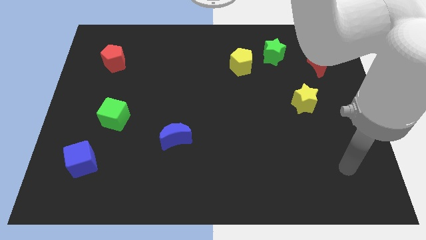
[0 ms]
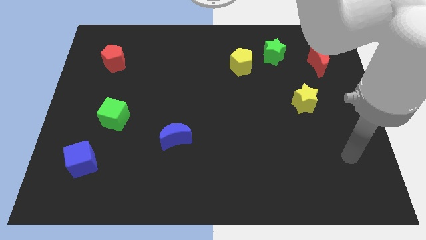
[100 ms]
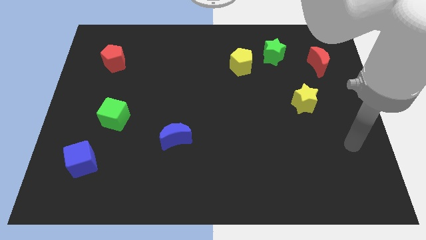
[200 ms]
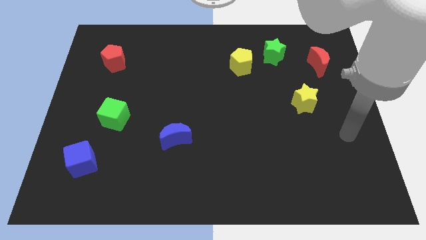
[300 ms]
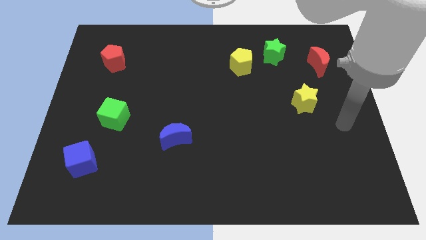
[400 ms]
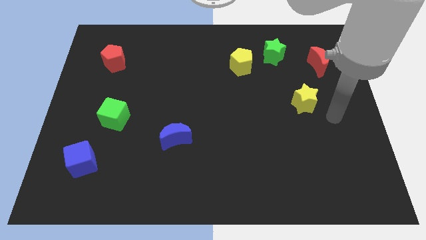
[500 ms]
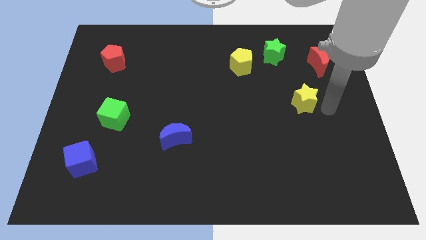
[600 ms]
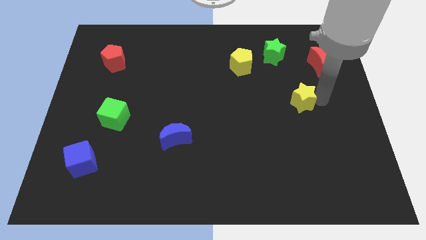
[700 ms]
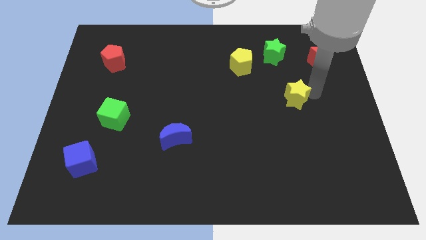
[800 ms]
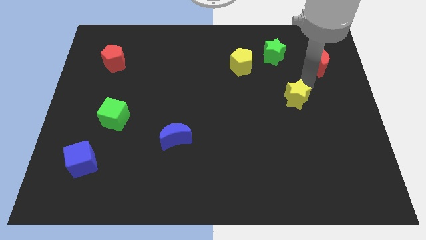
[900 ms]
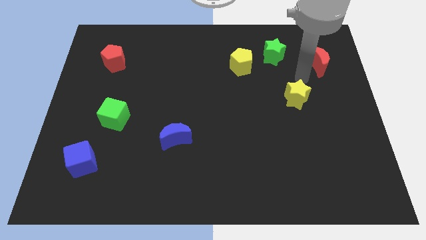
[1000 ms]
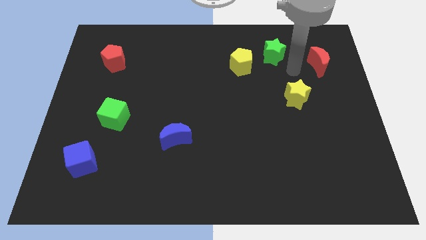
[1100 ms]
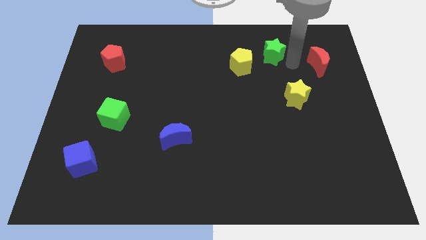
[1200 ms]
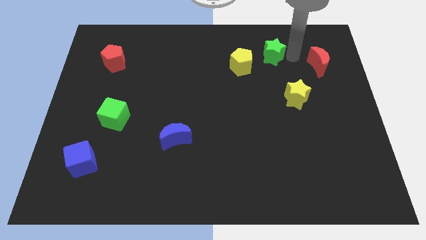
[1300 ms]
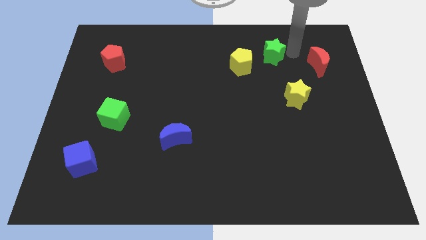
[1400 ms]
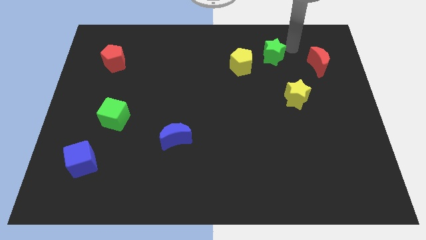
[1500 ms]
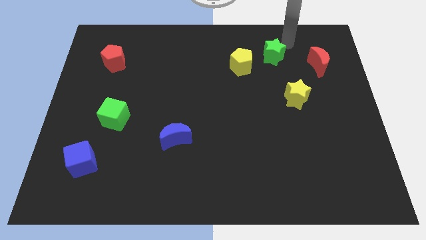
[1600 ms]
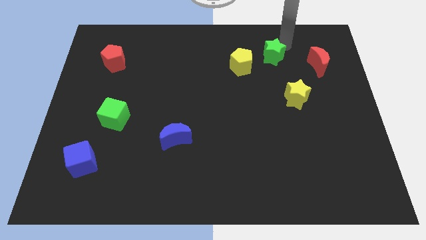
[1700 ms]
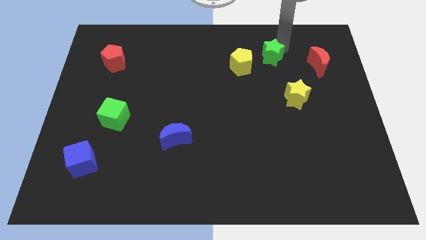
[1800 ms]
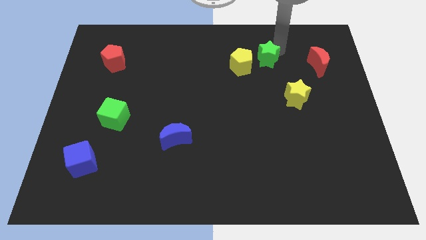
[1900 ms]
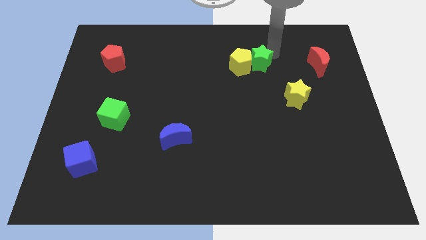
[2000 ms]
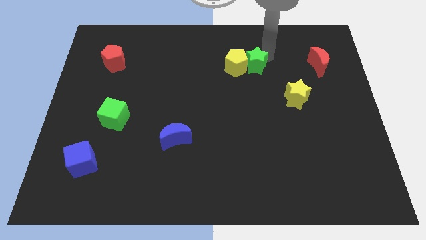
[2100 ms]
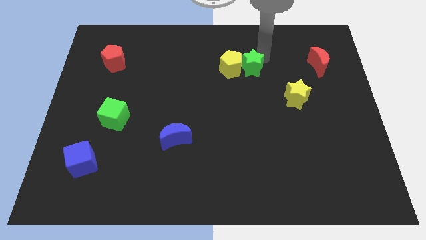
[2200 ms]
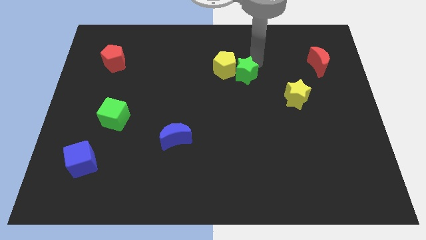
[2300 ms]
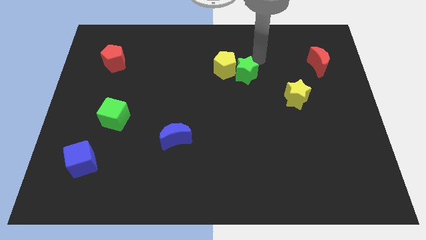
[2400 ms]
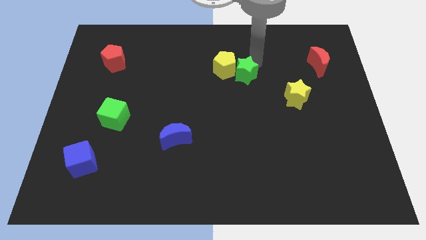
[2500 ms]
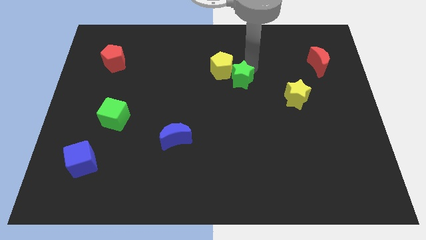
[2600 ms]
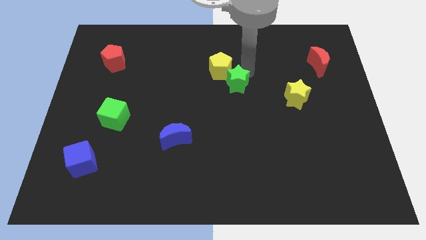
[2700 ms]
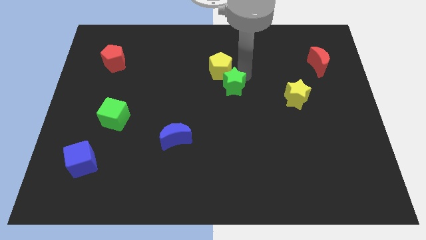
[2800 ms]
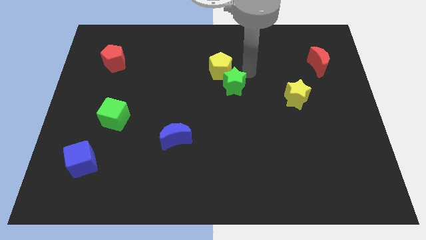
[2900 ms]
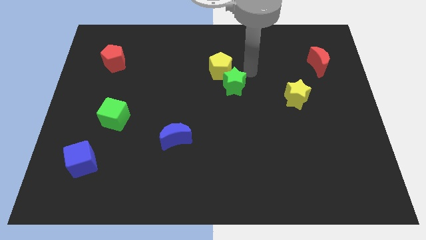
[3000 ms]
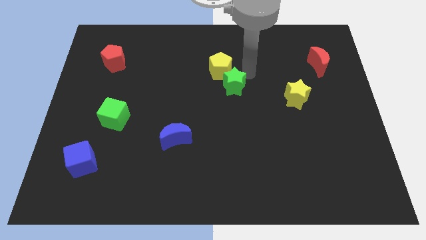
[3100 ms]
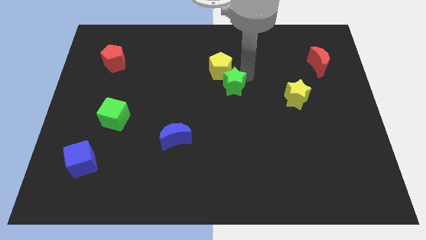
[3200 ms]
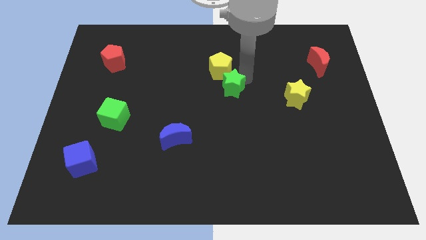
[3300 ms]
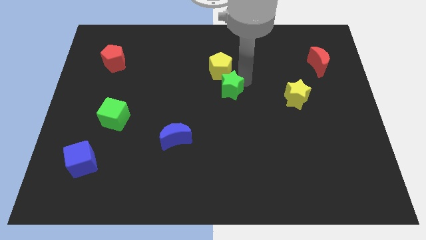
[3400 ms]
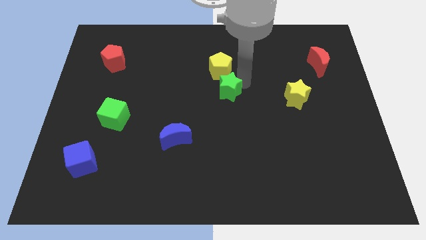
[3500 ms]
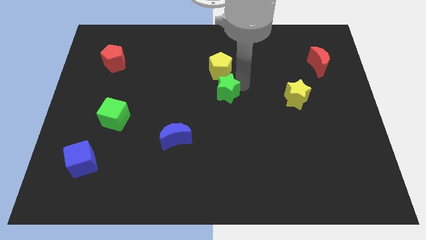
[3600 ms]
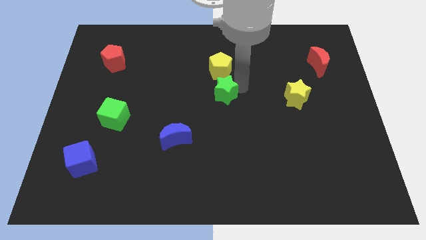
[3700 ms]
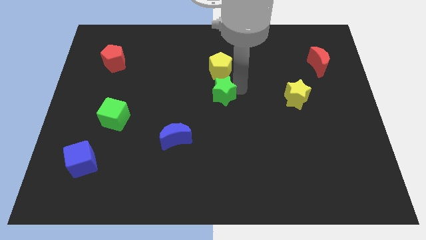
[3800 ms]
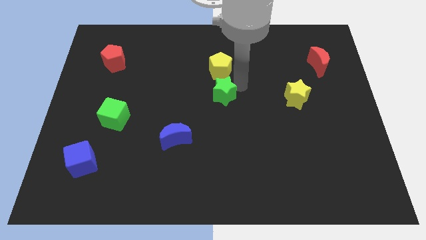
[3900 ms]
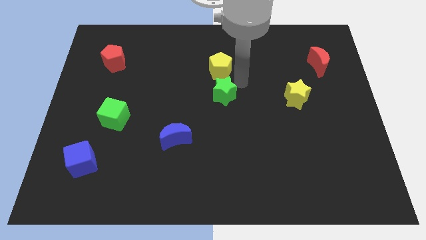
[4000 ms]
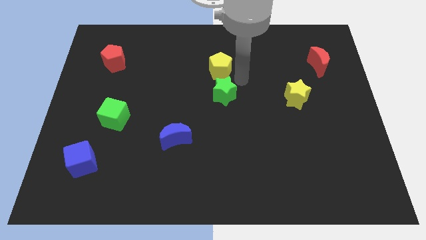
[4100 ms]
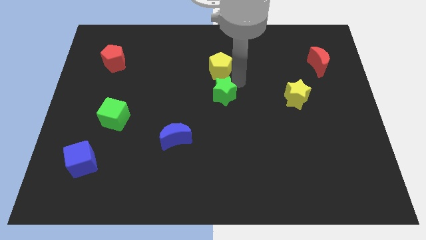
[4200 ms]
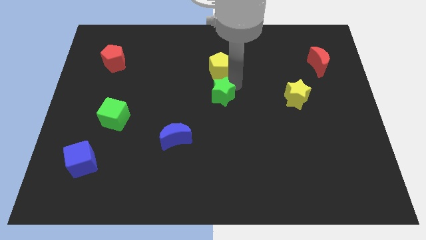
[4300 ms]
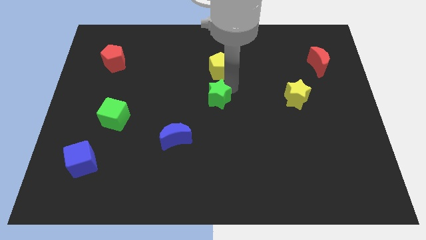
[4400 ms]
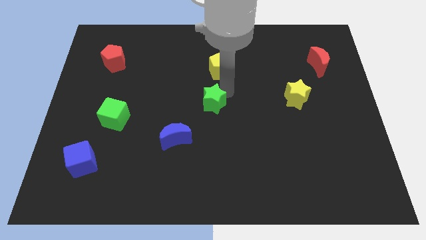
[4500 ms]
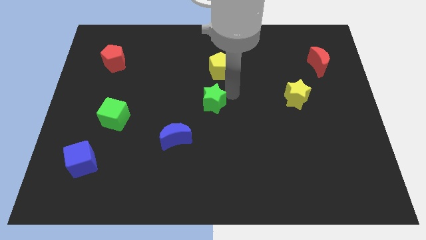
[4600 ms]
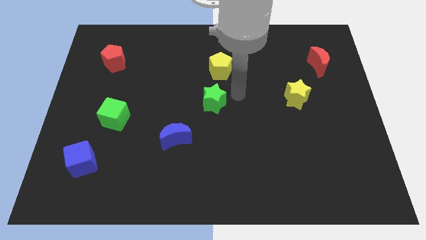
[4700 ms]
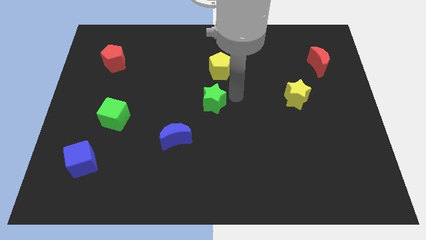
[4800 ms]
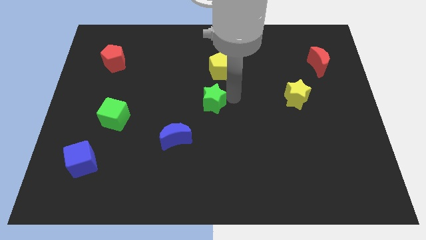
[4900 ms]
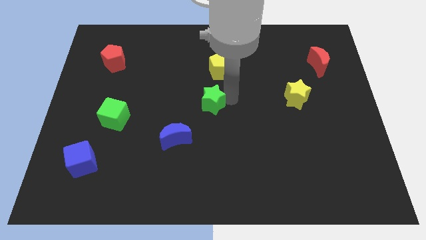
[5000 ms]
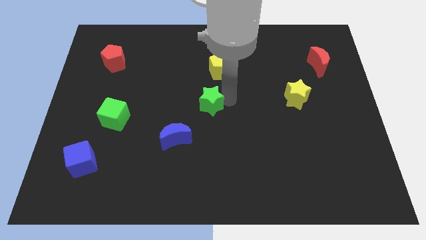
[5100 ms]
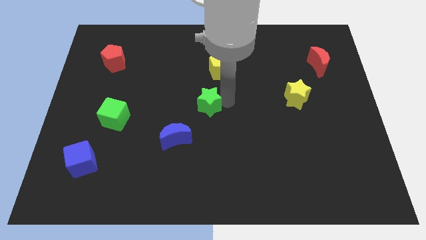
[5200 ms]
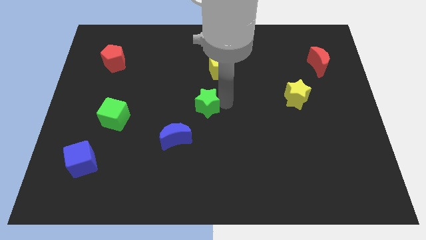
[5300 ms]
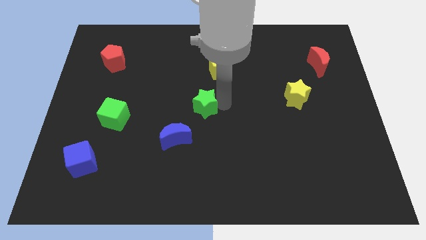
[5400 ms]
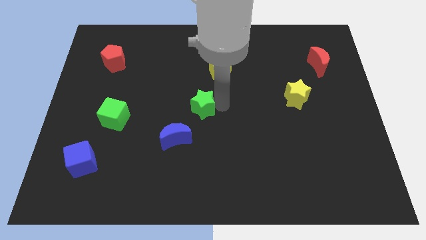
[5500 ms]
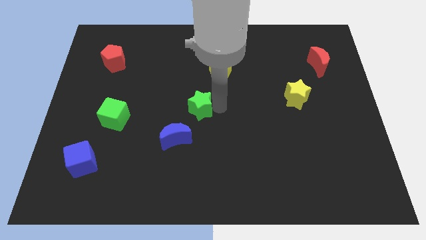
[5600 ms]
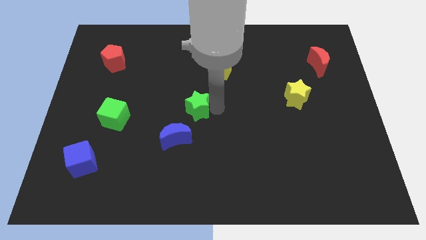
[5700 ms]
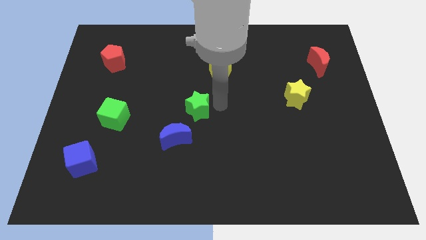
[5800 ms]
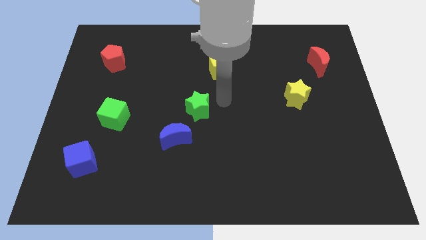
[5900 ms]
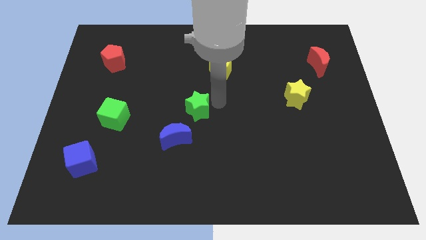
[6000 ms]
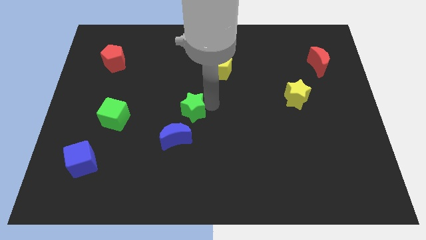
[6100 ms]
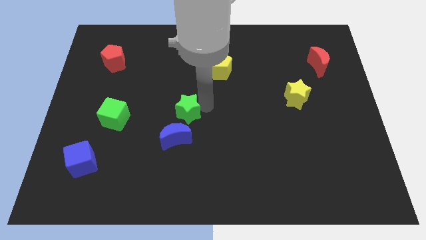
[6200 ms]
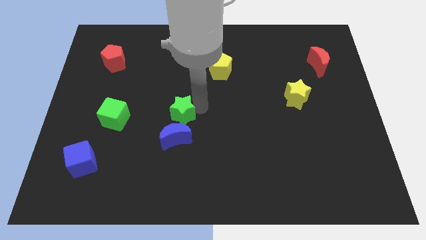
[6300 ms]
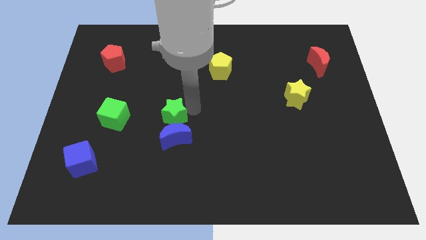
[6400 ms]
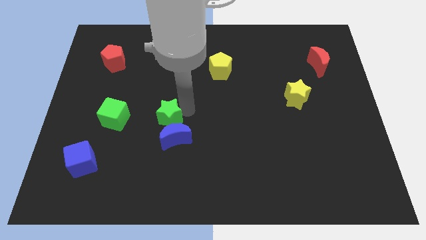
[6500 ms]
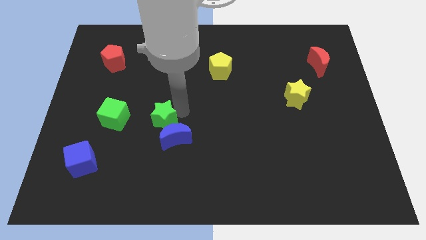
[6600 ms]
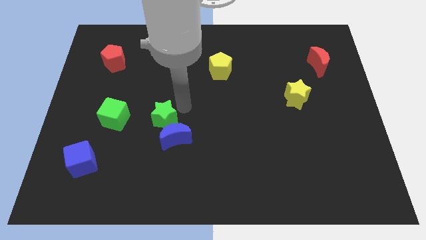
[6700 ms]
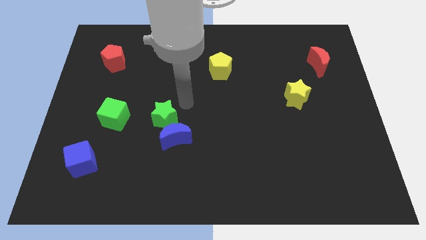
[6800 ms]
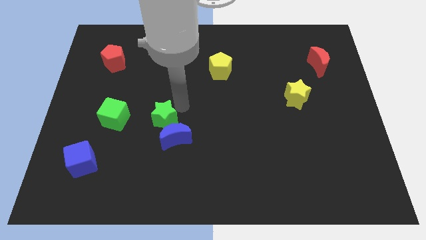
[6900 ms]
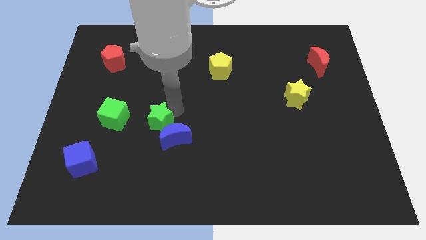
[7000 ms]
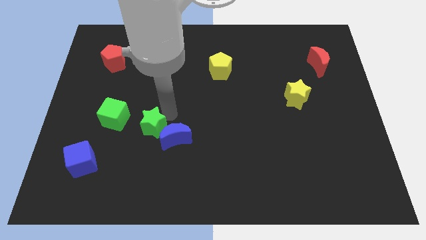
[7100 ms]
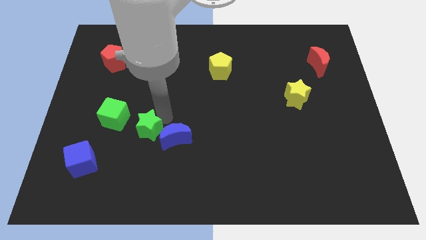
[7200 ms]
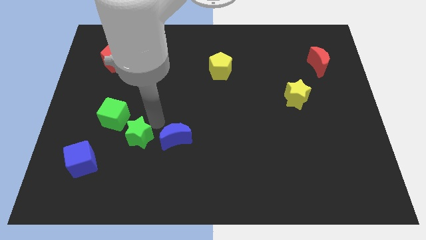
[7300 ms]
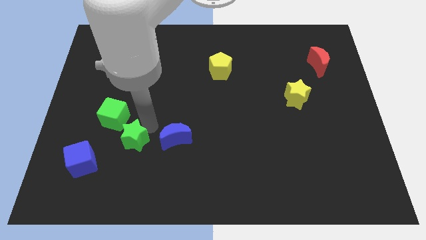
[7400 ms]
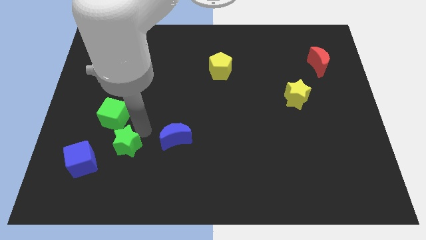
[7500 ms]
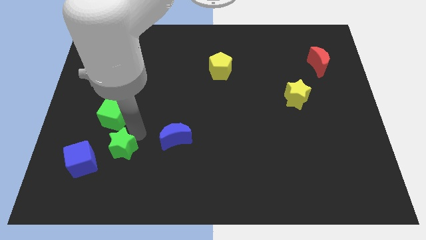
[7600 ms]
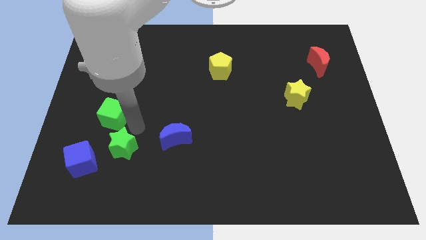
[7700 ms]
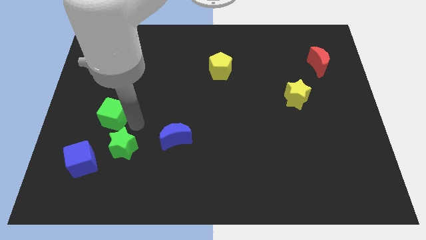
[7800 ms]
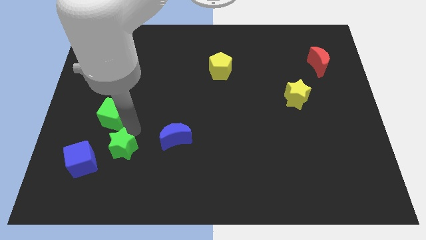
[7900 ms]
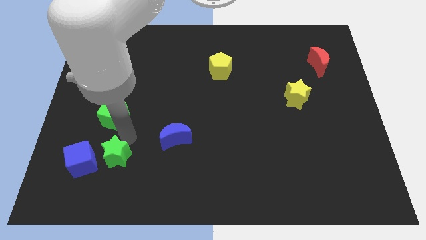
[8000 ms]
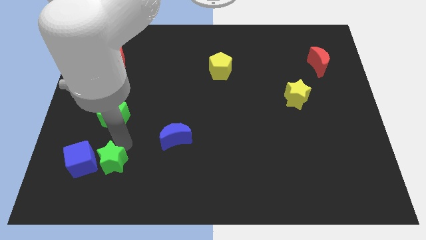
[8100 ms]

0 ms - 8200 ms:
push the green star to the bottom right side of the blue cube
